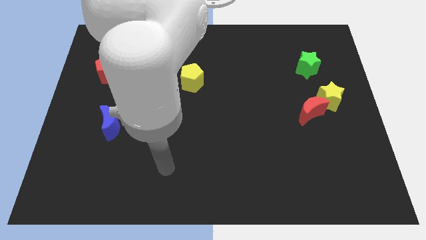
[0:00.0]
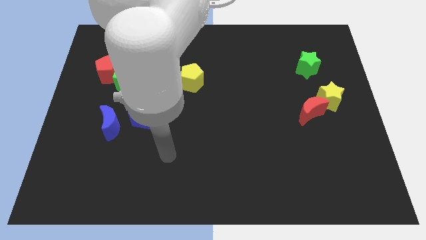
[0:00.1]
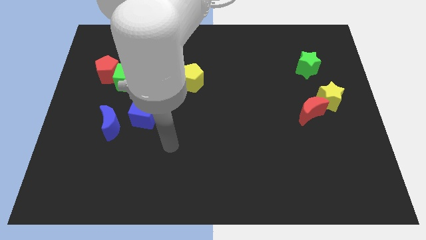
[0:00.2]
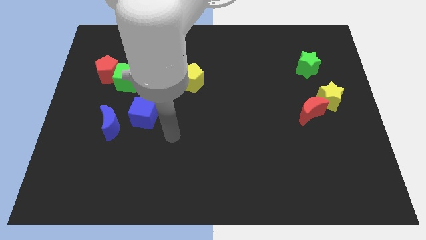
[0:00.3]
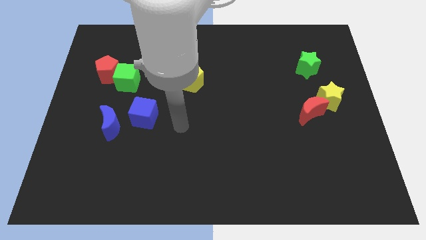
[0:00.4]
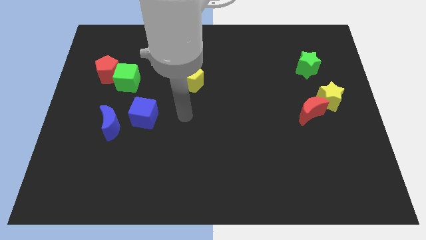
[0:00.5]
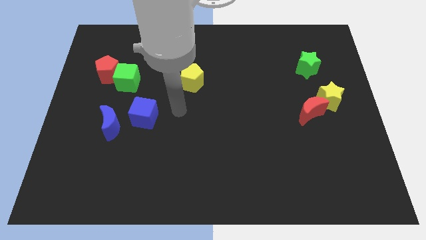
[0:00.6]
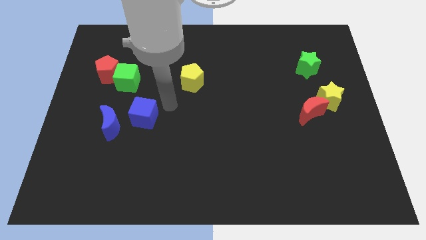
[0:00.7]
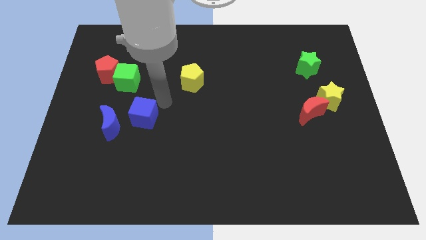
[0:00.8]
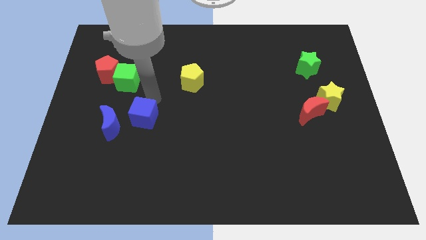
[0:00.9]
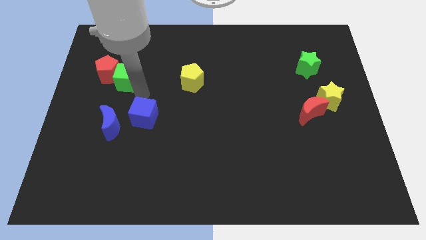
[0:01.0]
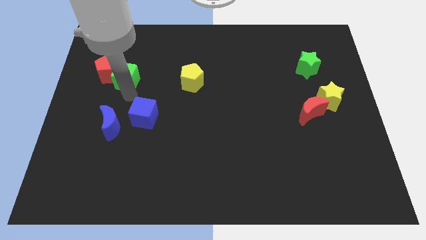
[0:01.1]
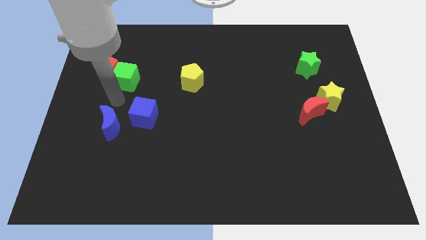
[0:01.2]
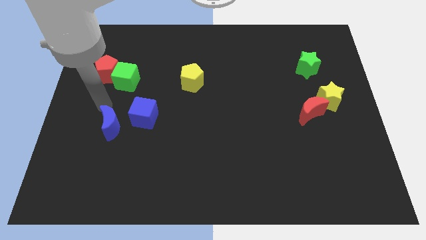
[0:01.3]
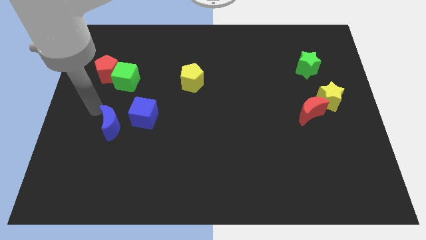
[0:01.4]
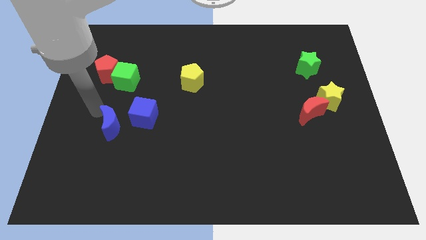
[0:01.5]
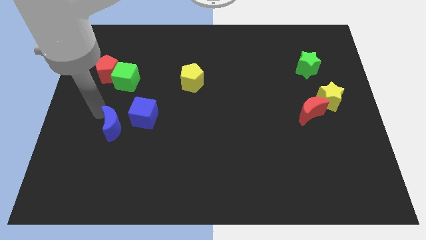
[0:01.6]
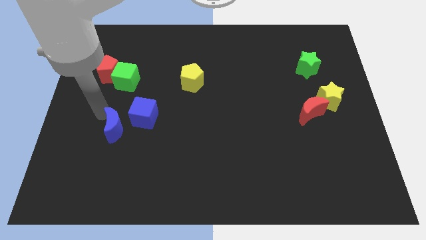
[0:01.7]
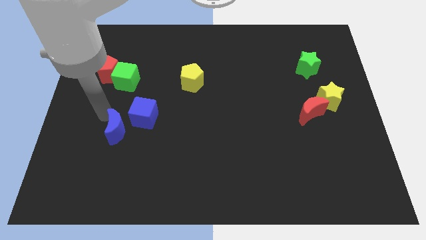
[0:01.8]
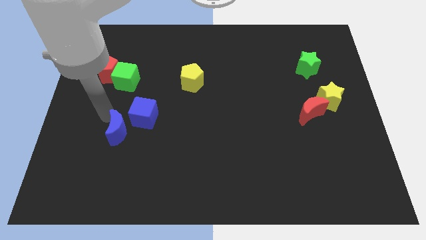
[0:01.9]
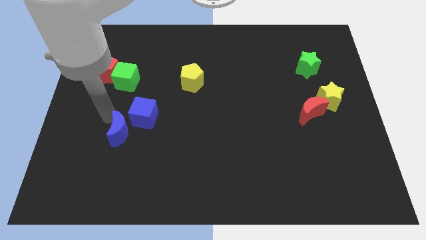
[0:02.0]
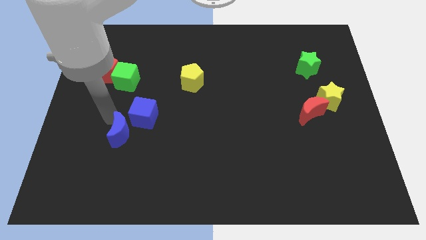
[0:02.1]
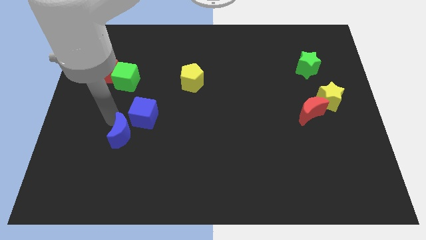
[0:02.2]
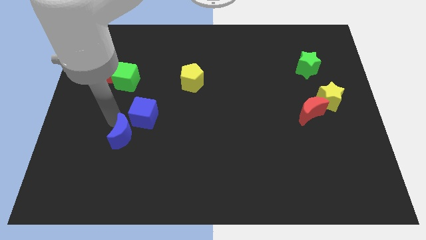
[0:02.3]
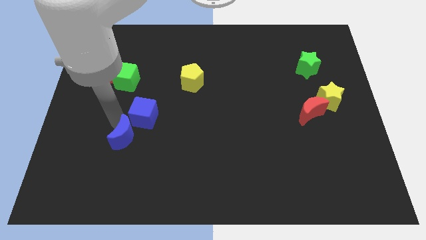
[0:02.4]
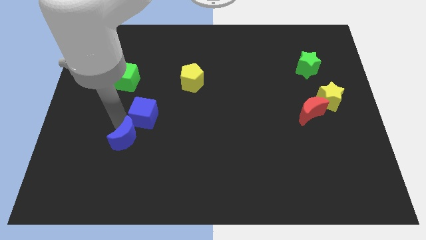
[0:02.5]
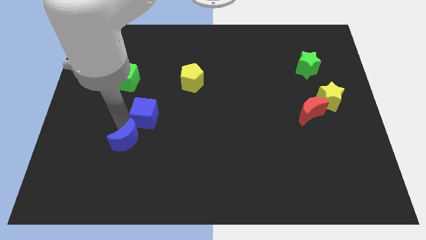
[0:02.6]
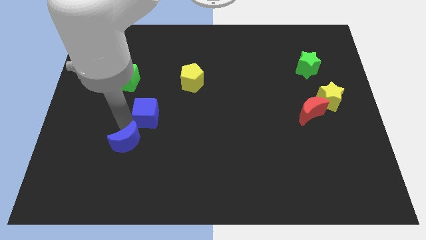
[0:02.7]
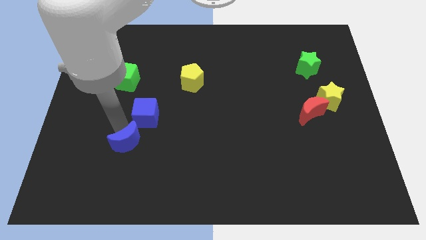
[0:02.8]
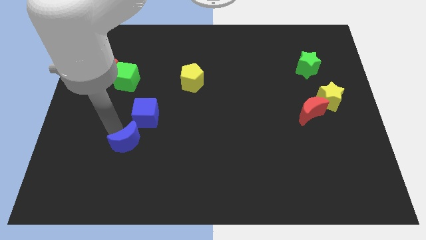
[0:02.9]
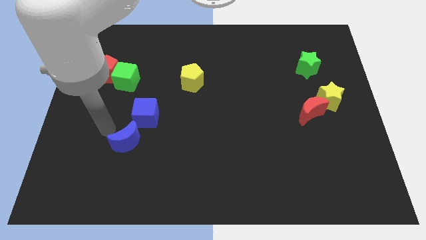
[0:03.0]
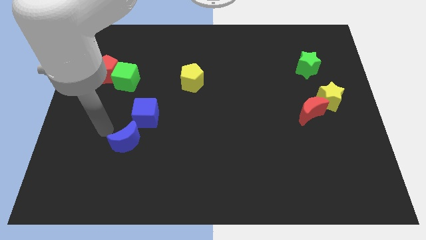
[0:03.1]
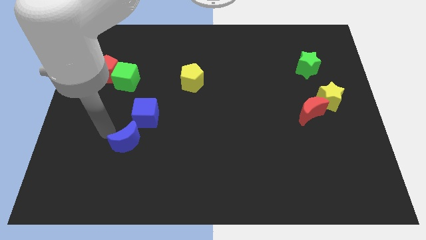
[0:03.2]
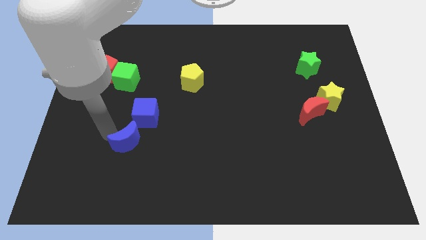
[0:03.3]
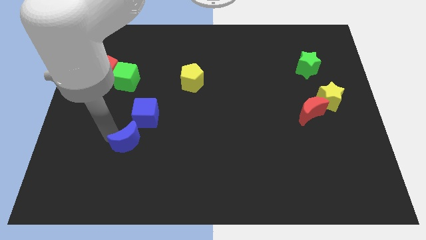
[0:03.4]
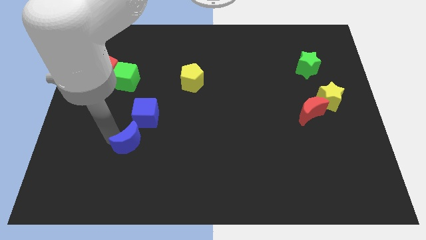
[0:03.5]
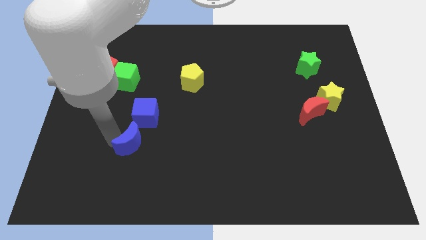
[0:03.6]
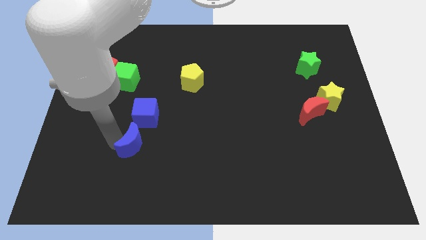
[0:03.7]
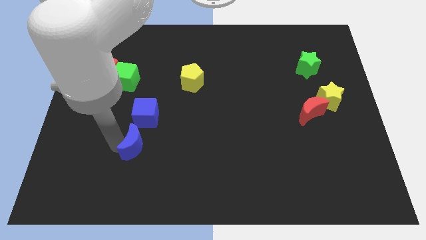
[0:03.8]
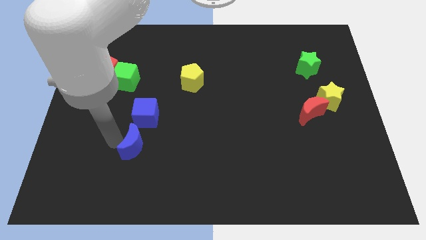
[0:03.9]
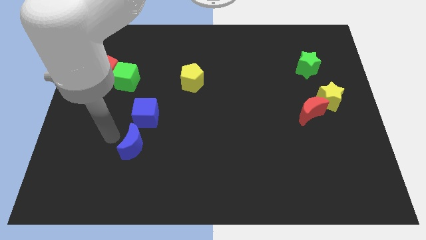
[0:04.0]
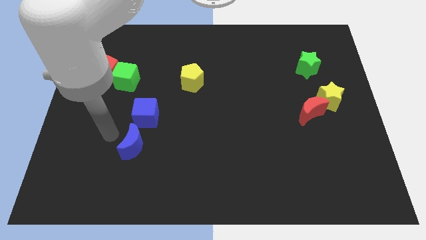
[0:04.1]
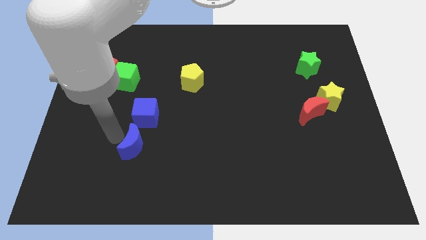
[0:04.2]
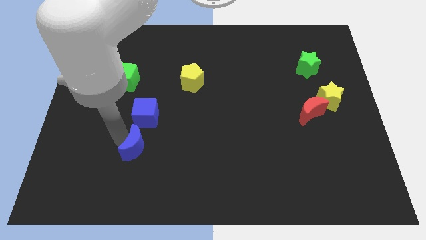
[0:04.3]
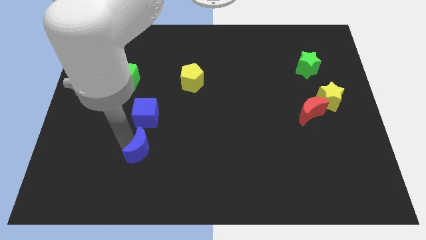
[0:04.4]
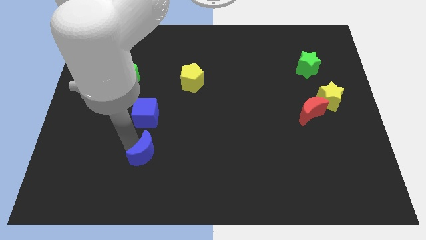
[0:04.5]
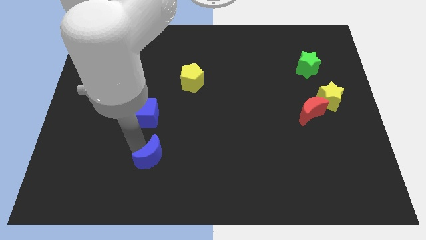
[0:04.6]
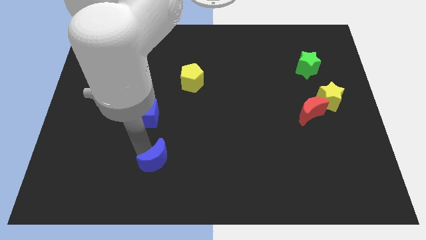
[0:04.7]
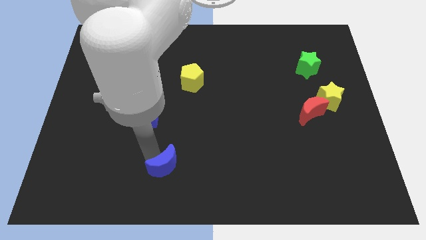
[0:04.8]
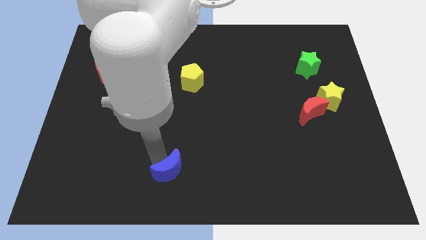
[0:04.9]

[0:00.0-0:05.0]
slide the blue moon to the bottom side

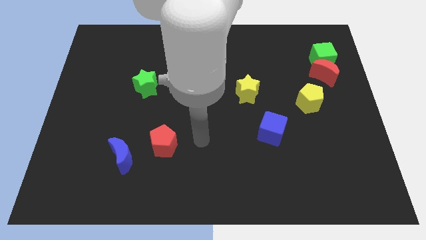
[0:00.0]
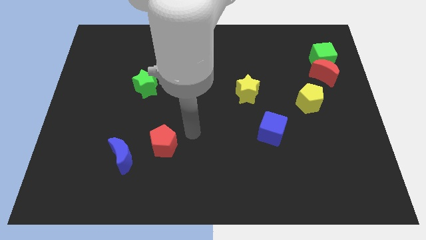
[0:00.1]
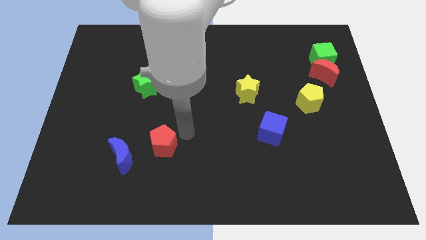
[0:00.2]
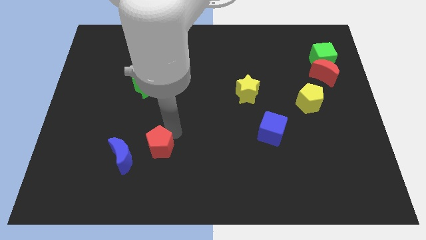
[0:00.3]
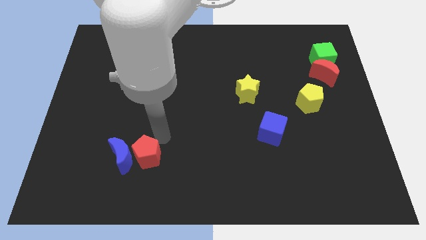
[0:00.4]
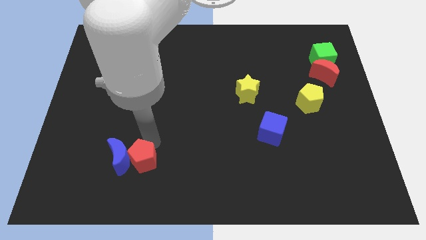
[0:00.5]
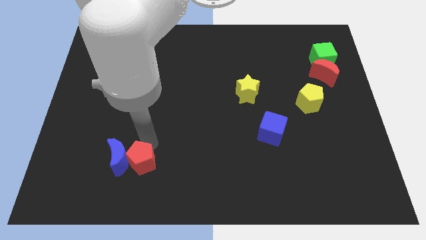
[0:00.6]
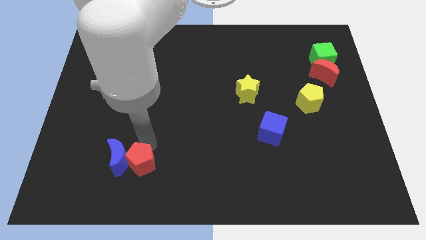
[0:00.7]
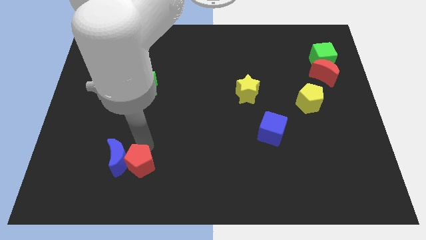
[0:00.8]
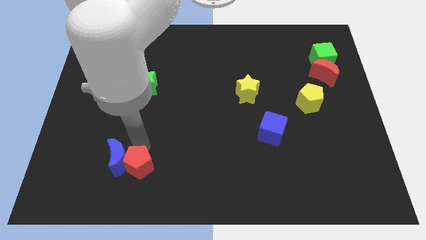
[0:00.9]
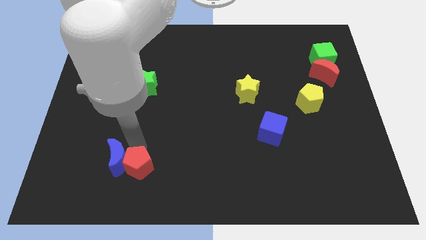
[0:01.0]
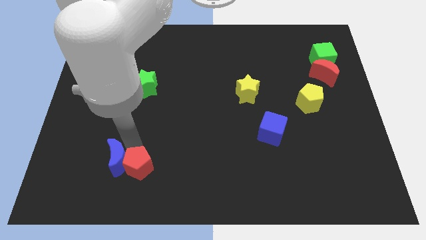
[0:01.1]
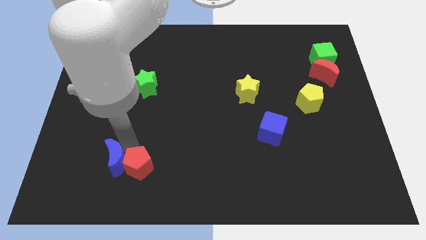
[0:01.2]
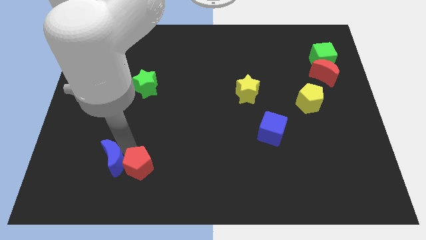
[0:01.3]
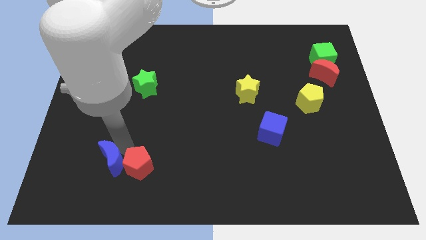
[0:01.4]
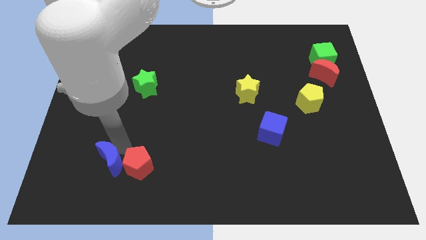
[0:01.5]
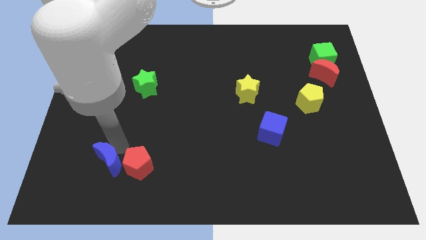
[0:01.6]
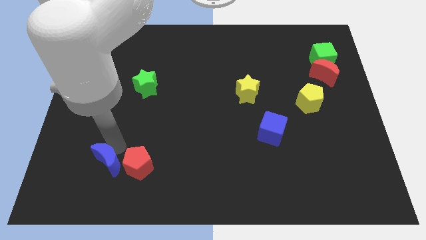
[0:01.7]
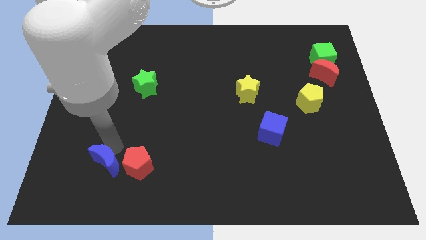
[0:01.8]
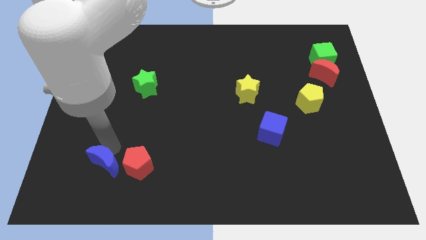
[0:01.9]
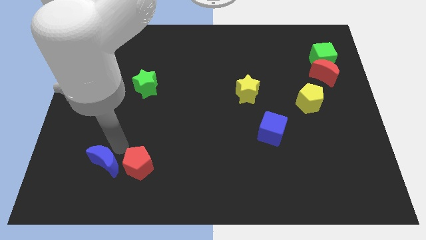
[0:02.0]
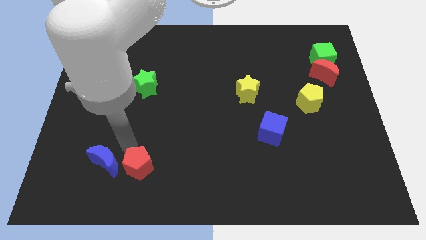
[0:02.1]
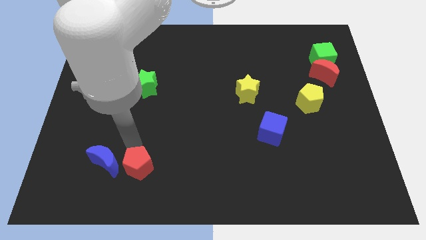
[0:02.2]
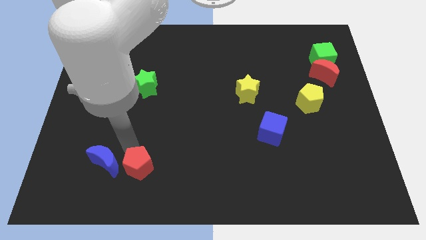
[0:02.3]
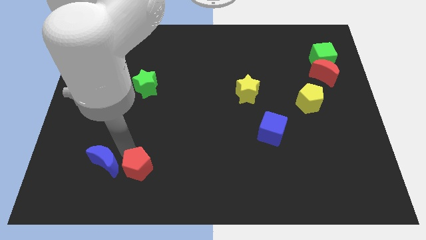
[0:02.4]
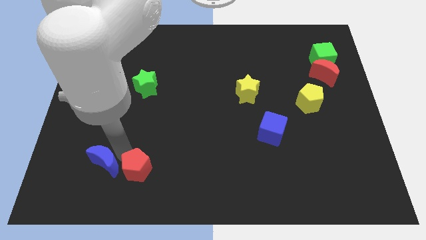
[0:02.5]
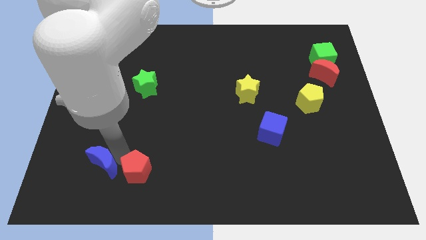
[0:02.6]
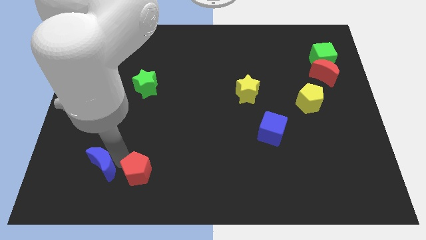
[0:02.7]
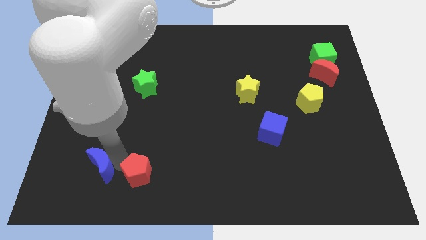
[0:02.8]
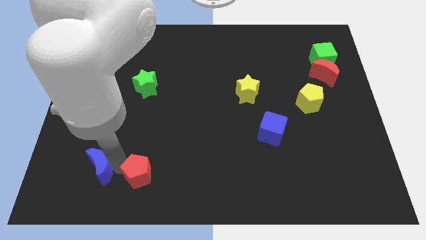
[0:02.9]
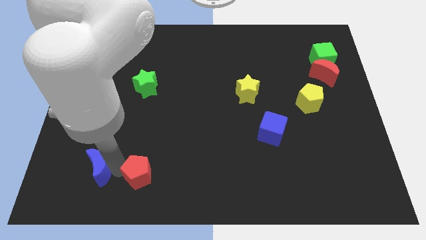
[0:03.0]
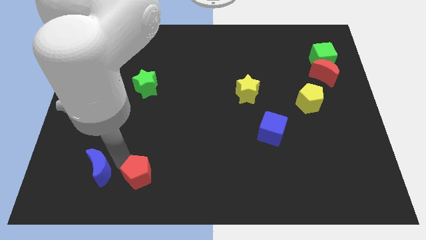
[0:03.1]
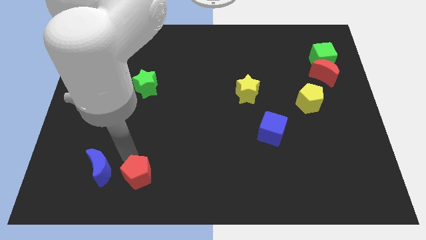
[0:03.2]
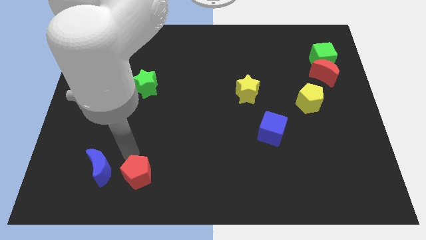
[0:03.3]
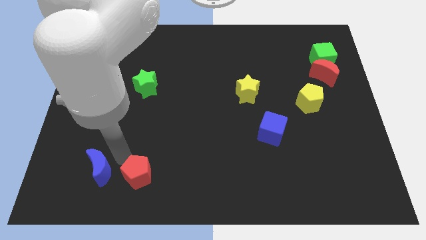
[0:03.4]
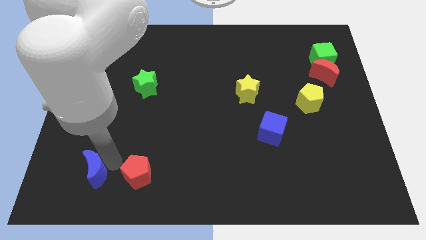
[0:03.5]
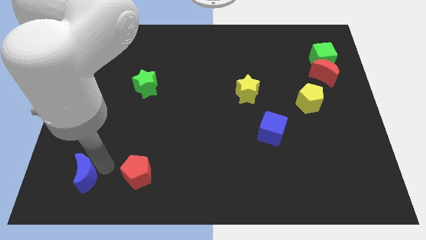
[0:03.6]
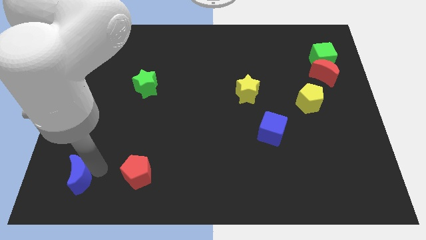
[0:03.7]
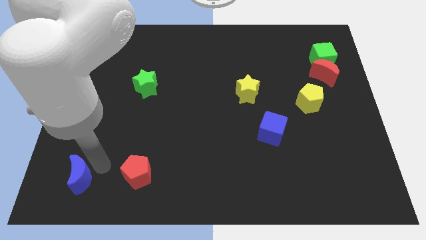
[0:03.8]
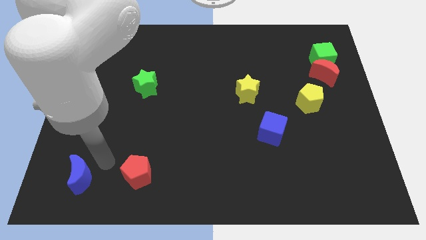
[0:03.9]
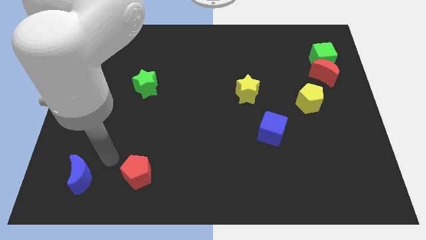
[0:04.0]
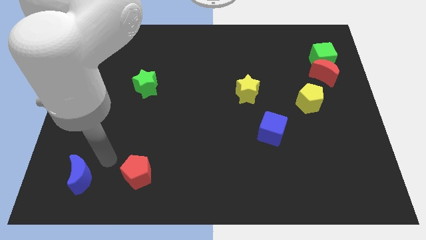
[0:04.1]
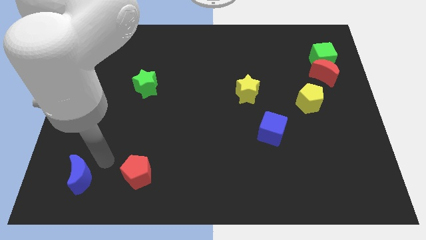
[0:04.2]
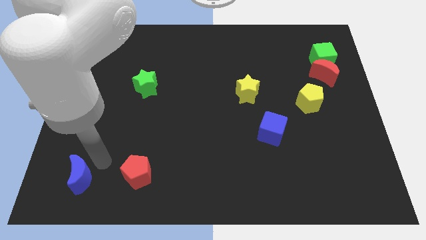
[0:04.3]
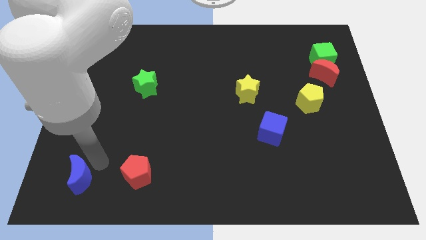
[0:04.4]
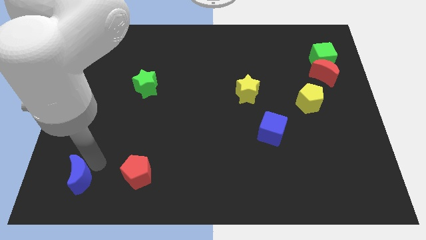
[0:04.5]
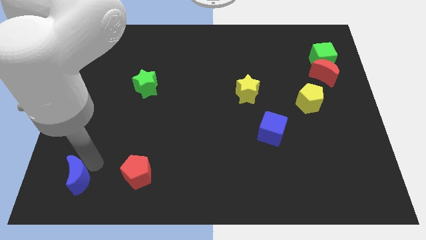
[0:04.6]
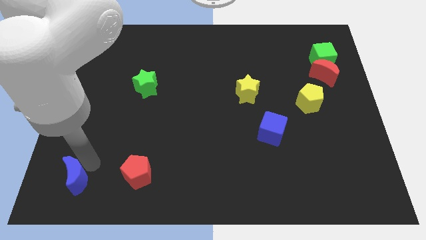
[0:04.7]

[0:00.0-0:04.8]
slide the blue moon to the bottom left corner
